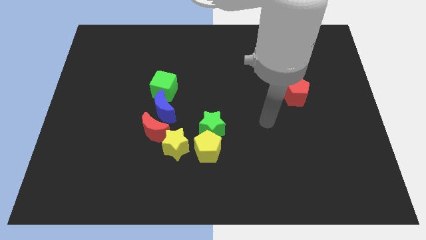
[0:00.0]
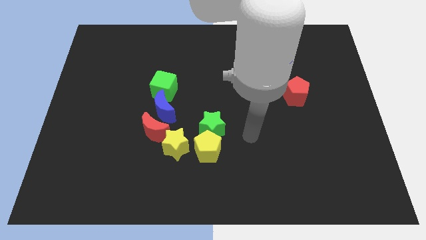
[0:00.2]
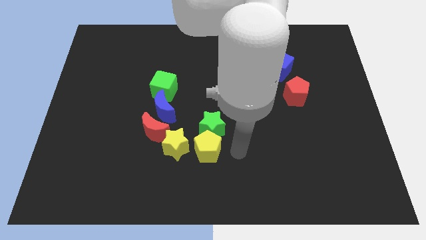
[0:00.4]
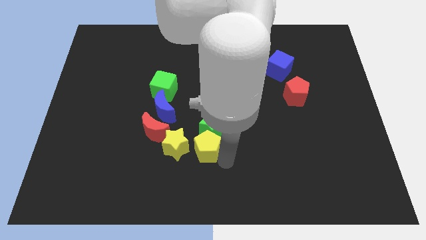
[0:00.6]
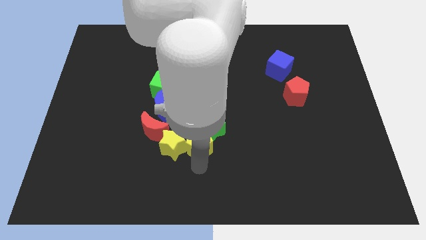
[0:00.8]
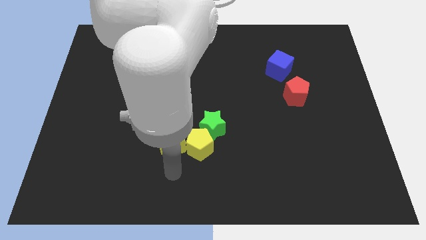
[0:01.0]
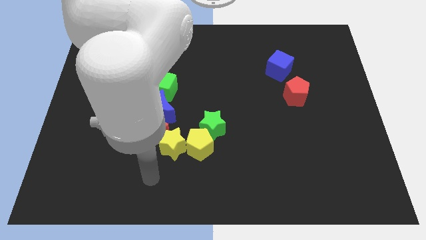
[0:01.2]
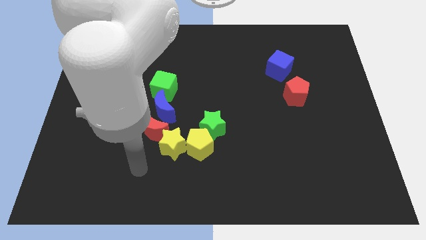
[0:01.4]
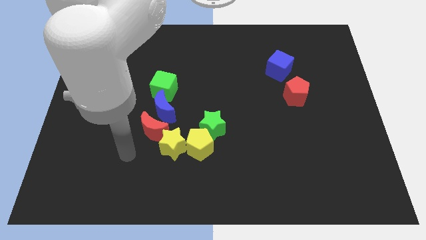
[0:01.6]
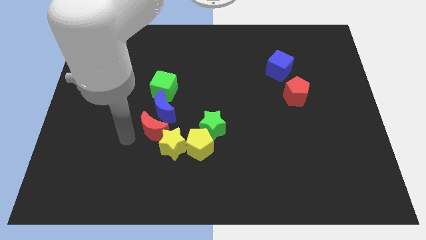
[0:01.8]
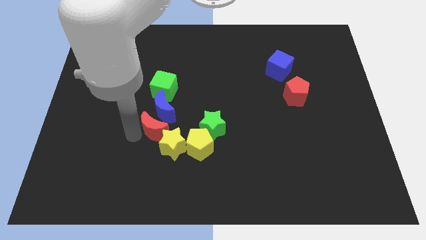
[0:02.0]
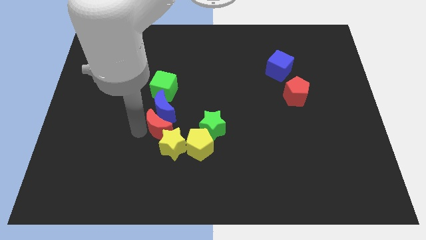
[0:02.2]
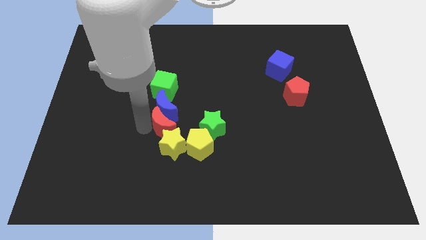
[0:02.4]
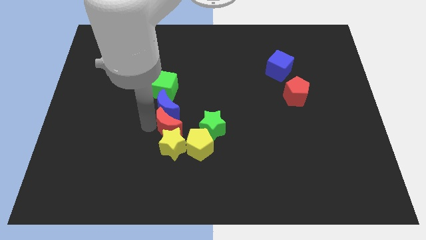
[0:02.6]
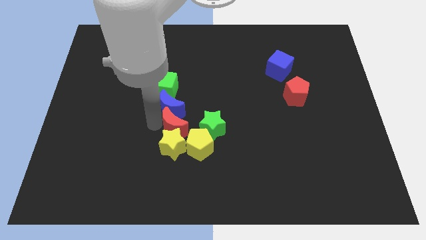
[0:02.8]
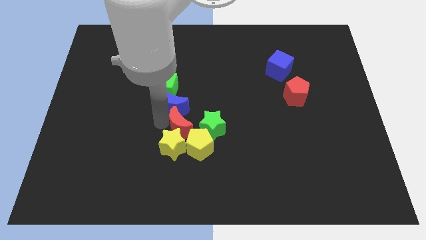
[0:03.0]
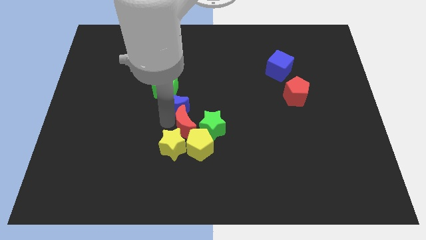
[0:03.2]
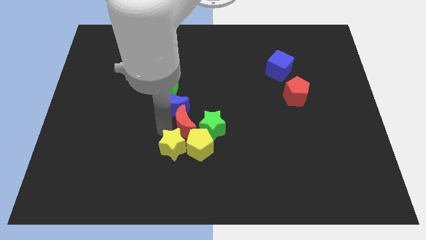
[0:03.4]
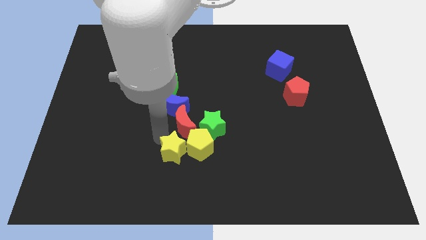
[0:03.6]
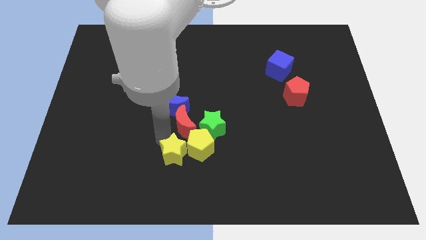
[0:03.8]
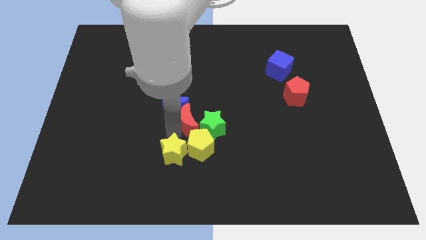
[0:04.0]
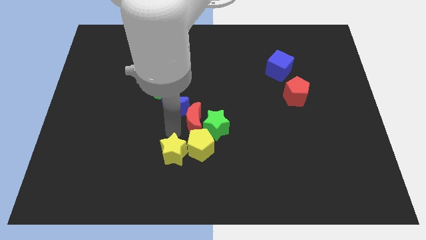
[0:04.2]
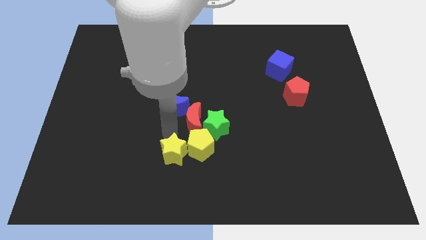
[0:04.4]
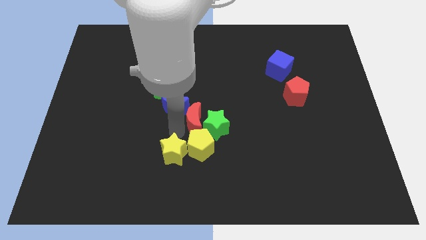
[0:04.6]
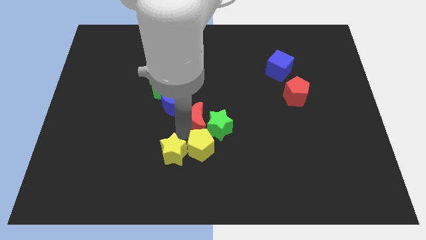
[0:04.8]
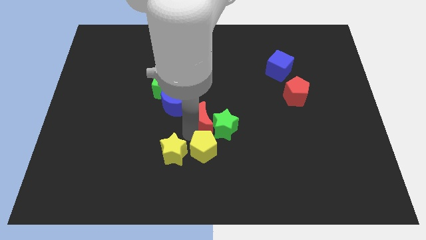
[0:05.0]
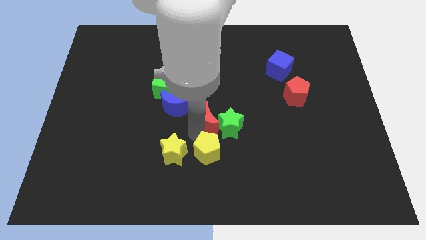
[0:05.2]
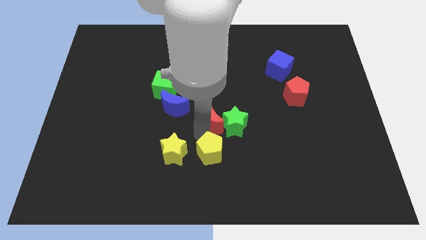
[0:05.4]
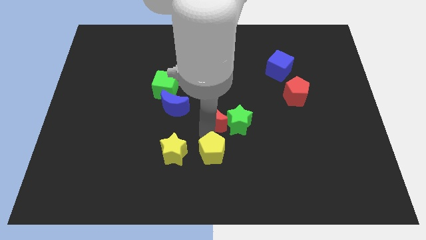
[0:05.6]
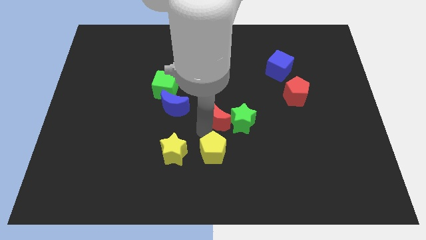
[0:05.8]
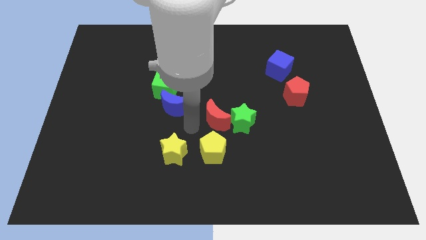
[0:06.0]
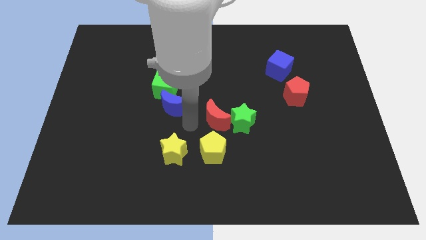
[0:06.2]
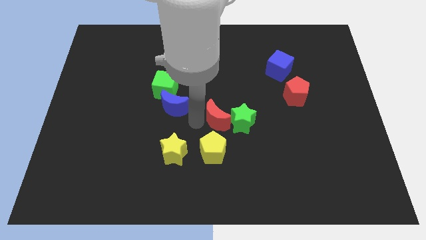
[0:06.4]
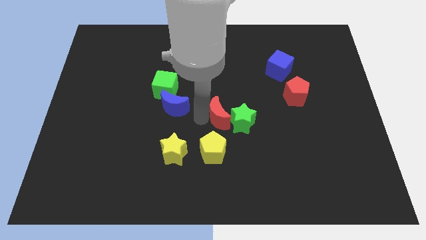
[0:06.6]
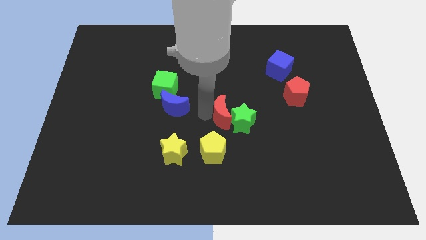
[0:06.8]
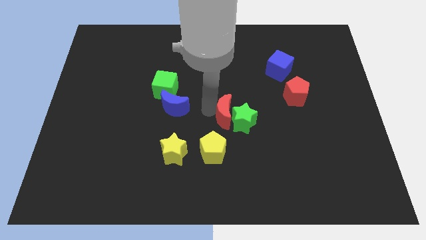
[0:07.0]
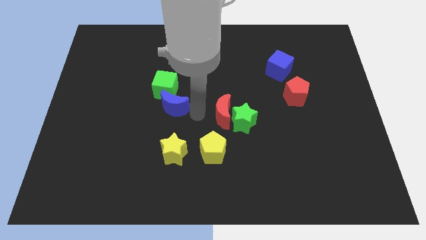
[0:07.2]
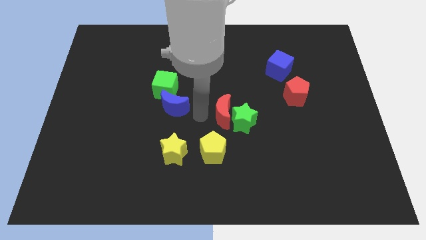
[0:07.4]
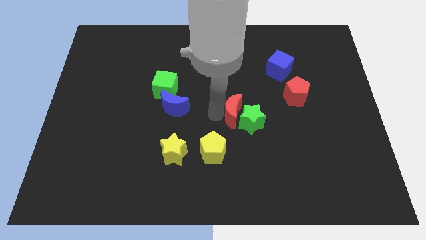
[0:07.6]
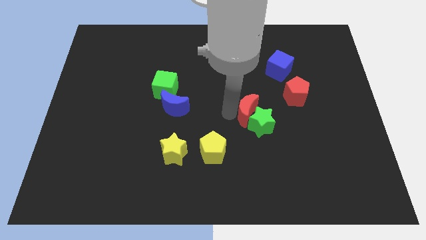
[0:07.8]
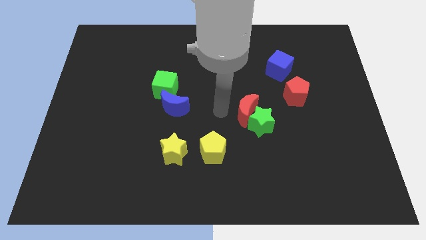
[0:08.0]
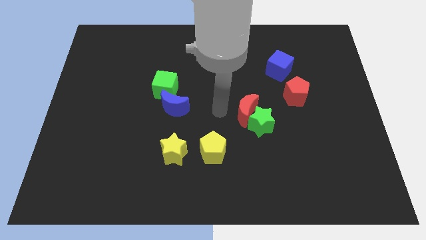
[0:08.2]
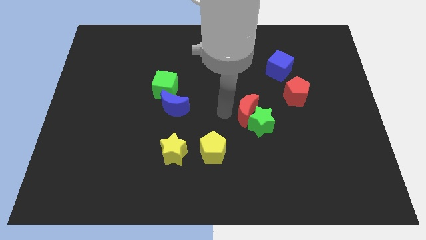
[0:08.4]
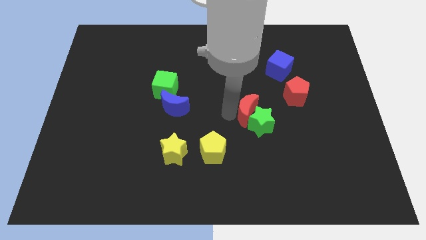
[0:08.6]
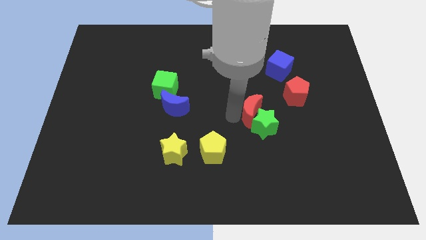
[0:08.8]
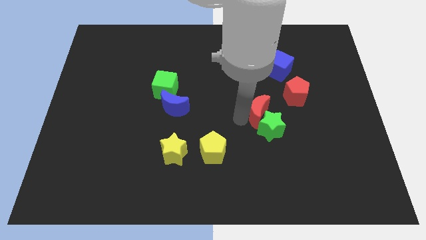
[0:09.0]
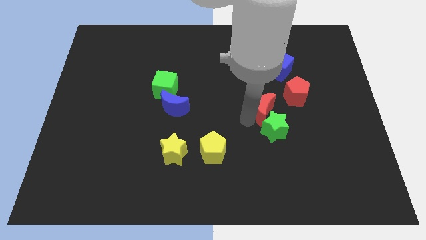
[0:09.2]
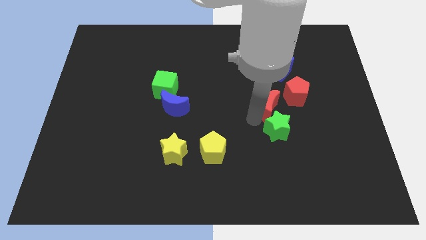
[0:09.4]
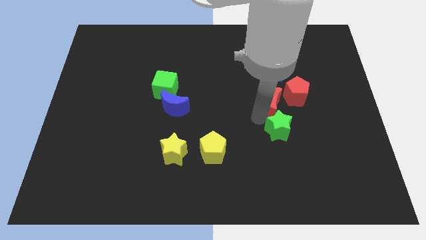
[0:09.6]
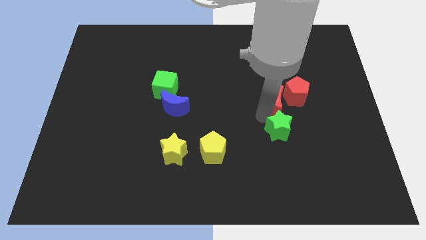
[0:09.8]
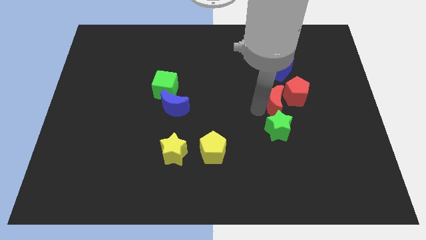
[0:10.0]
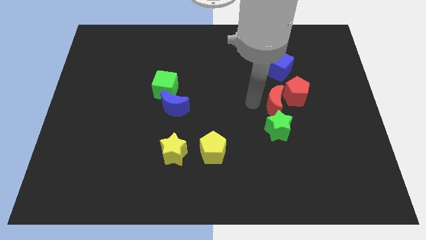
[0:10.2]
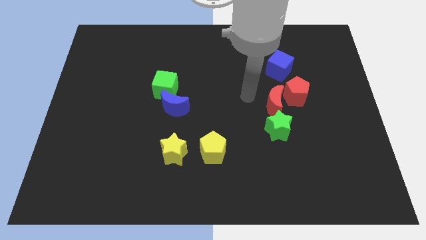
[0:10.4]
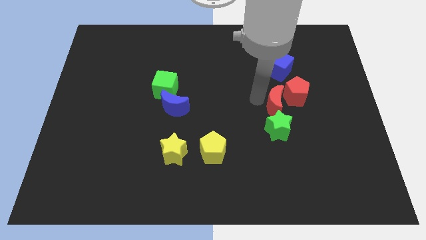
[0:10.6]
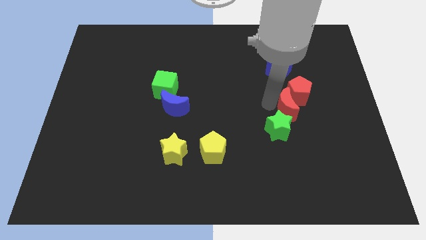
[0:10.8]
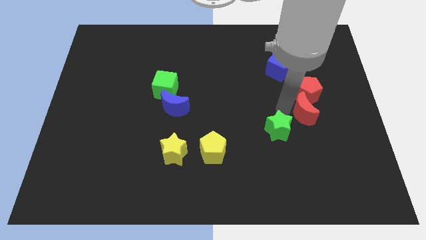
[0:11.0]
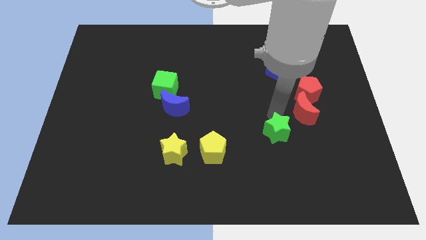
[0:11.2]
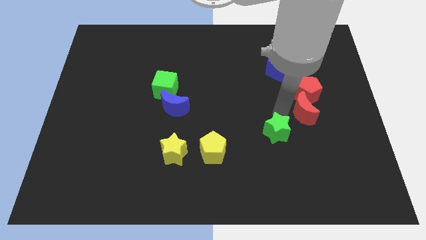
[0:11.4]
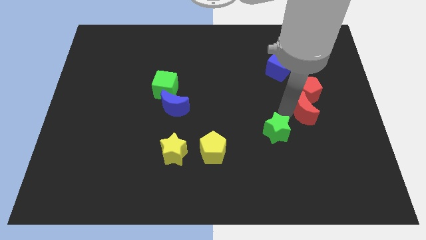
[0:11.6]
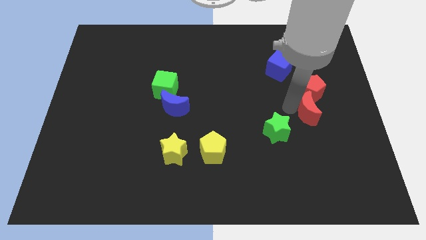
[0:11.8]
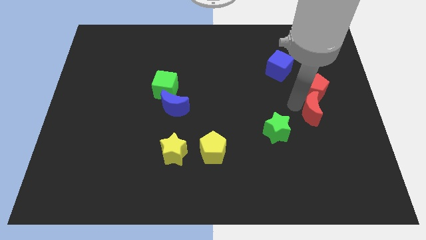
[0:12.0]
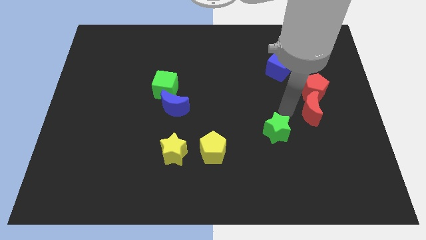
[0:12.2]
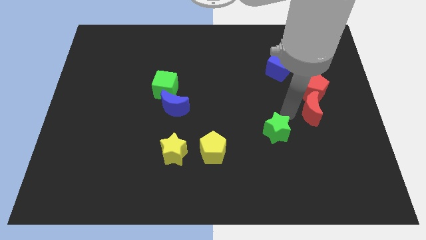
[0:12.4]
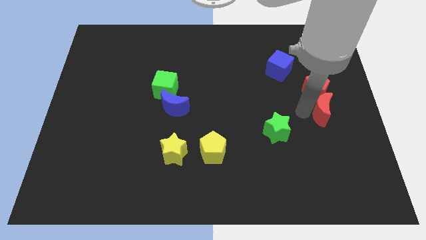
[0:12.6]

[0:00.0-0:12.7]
put the red moon to the right side of the board

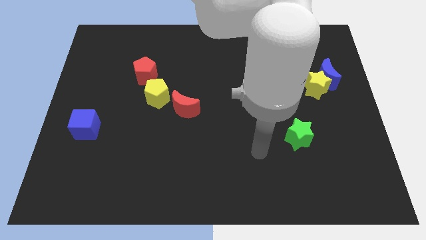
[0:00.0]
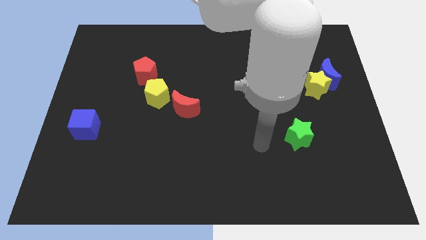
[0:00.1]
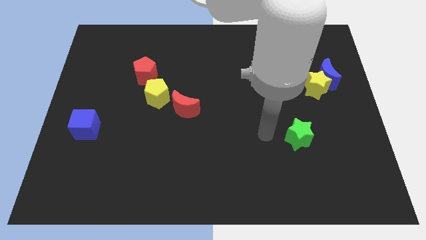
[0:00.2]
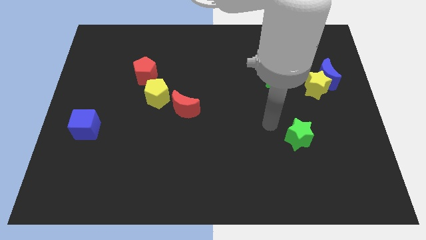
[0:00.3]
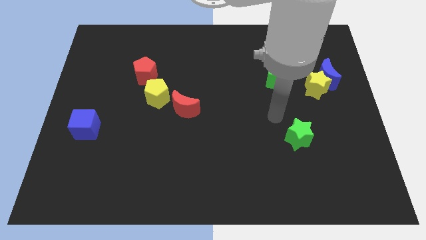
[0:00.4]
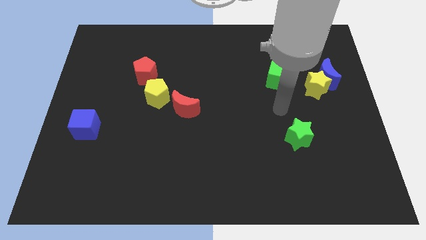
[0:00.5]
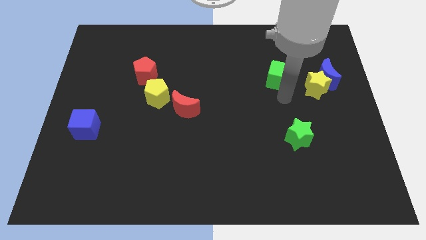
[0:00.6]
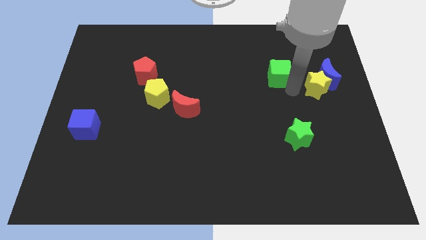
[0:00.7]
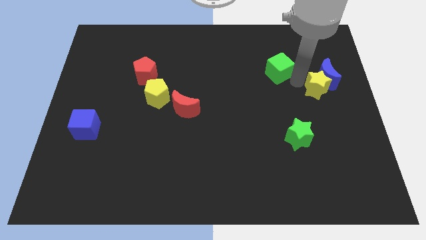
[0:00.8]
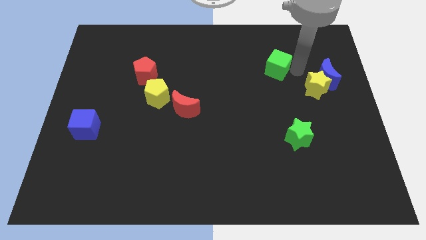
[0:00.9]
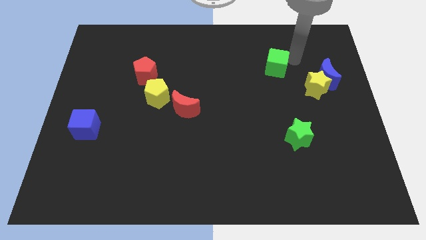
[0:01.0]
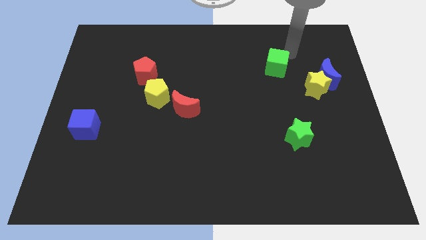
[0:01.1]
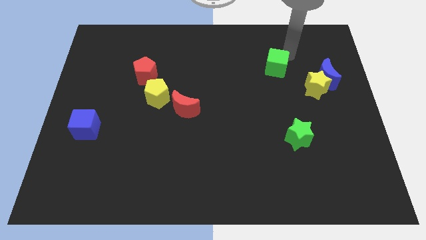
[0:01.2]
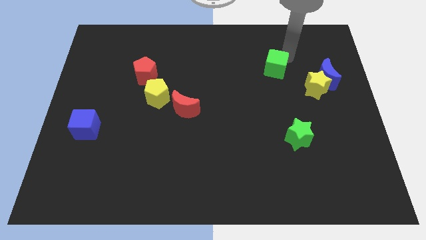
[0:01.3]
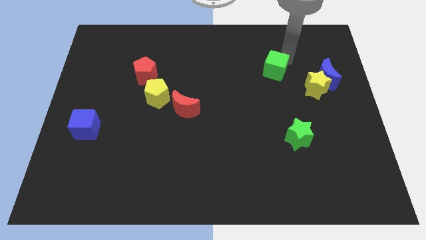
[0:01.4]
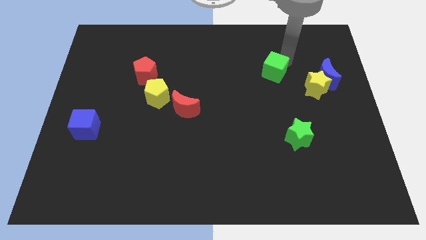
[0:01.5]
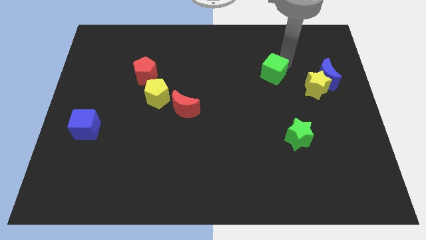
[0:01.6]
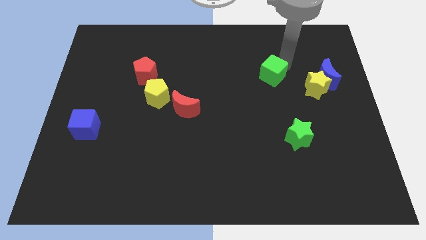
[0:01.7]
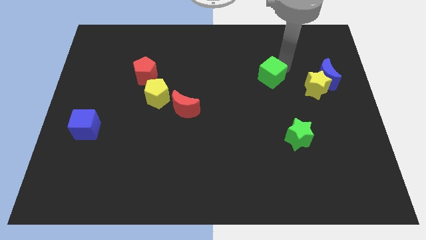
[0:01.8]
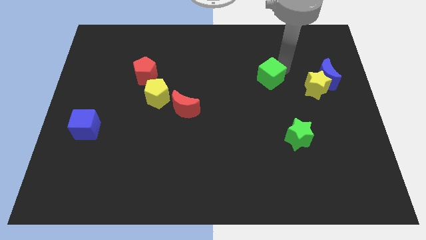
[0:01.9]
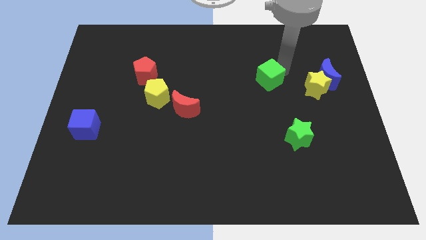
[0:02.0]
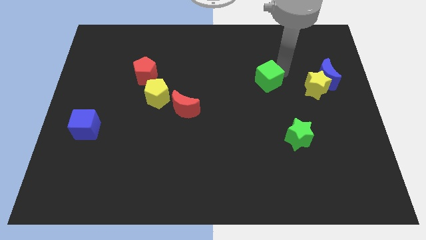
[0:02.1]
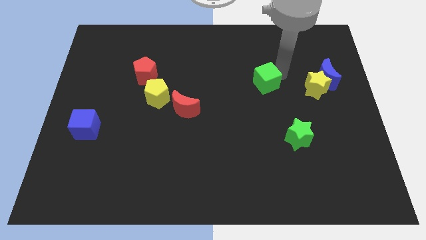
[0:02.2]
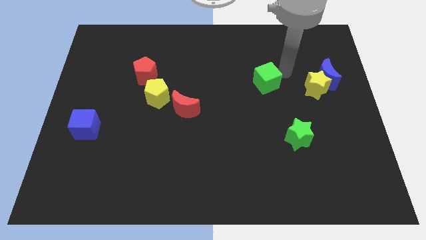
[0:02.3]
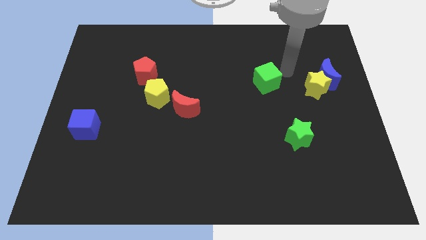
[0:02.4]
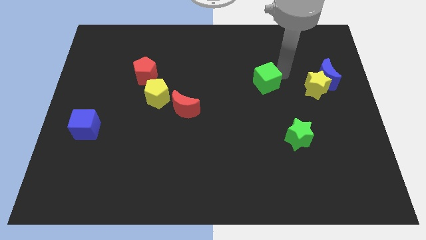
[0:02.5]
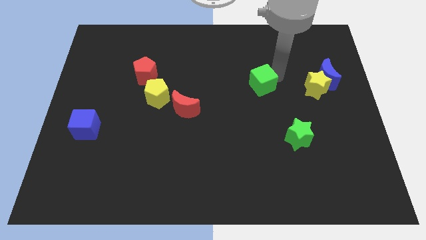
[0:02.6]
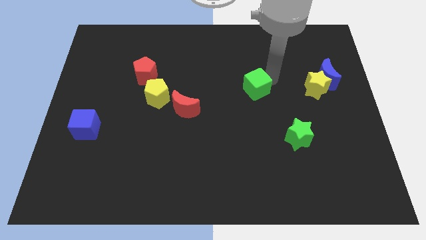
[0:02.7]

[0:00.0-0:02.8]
slide the green cube to the middle of the board
